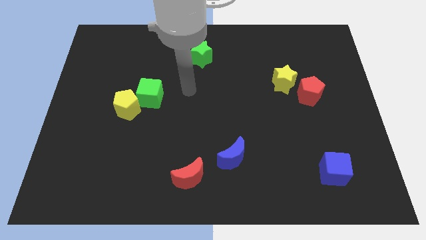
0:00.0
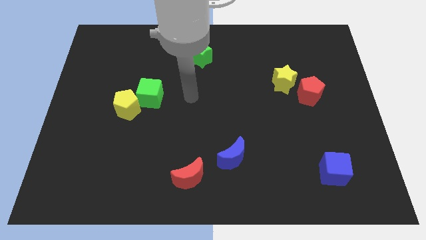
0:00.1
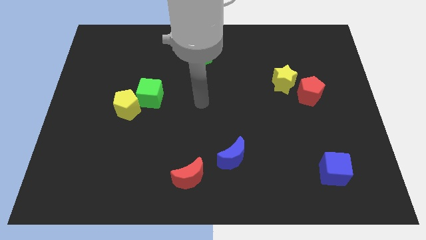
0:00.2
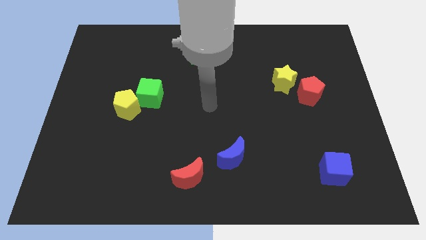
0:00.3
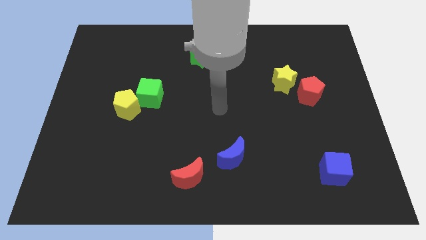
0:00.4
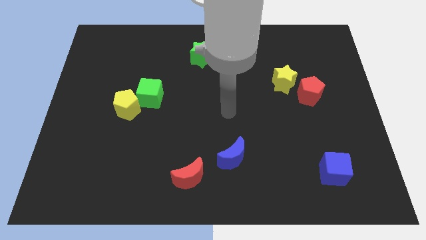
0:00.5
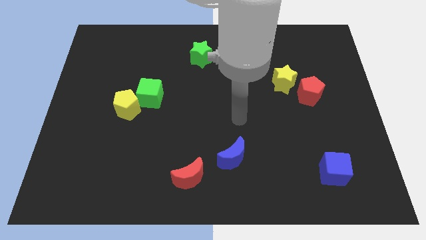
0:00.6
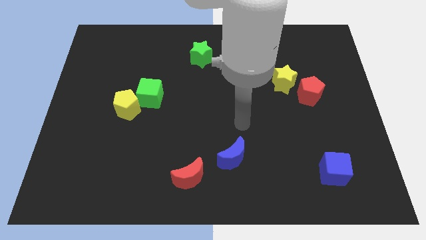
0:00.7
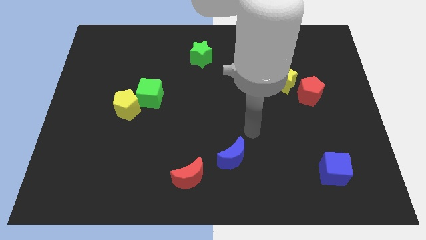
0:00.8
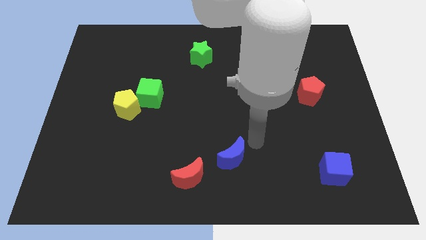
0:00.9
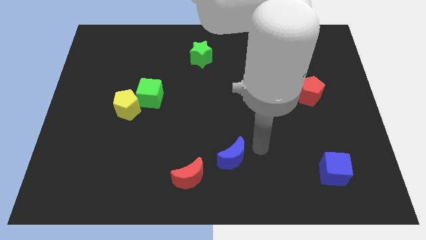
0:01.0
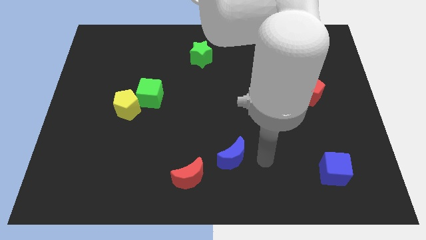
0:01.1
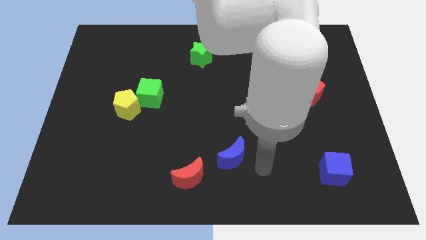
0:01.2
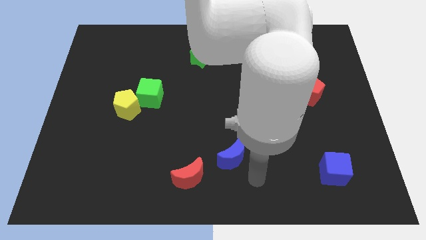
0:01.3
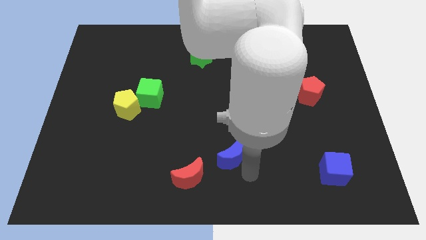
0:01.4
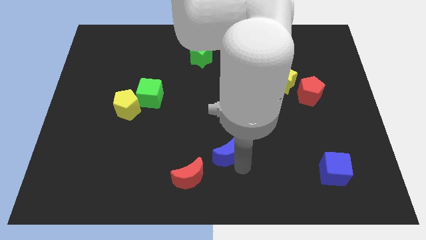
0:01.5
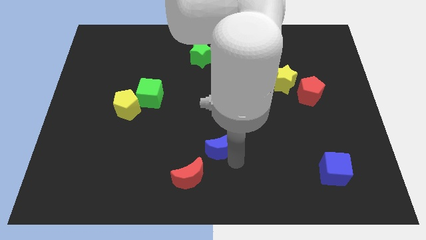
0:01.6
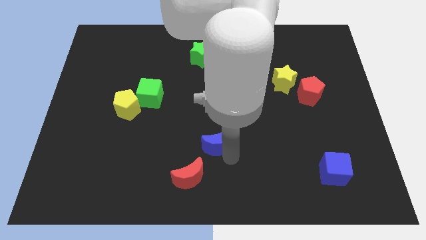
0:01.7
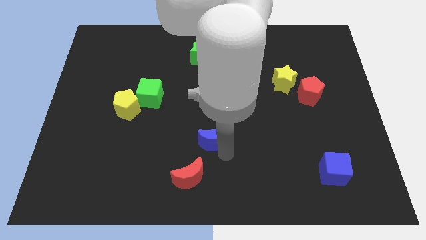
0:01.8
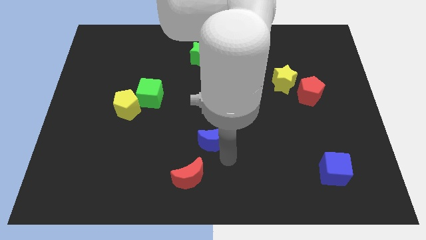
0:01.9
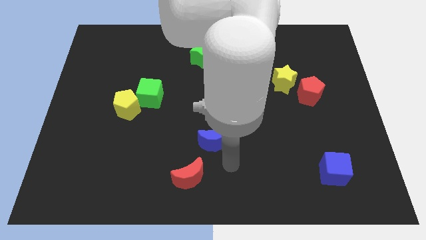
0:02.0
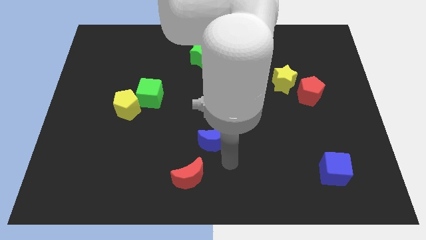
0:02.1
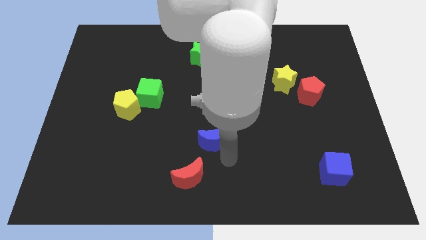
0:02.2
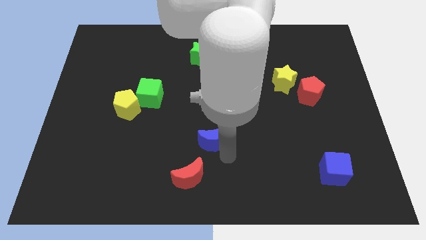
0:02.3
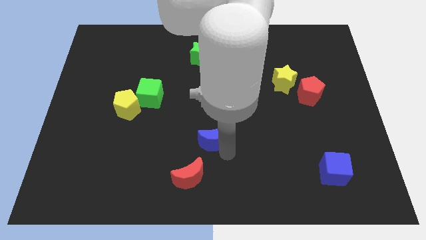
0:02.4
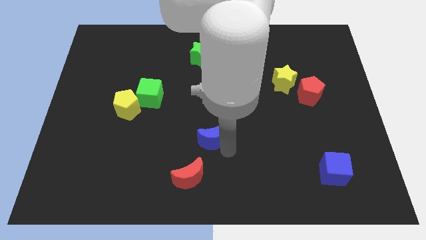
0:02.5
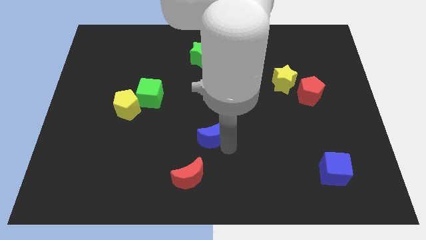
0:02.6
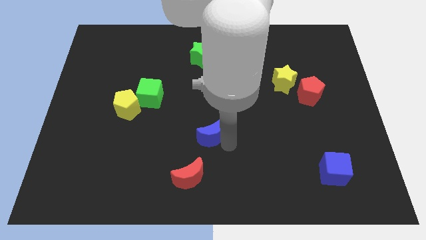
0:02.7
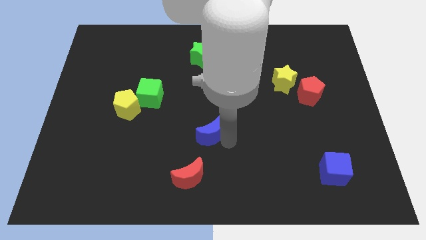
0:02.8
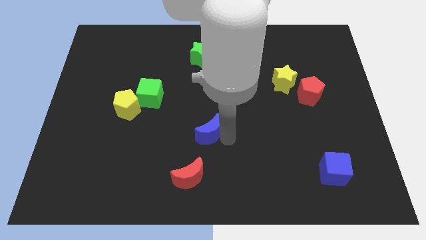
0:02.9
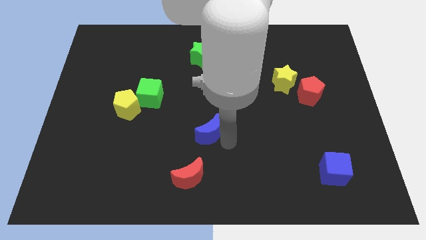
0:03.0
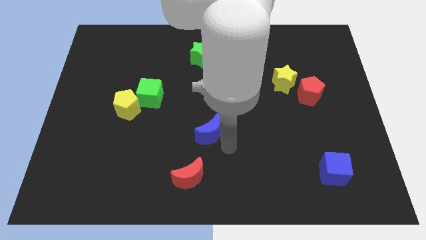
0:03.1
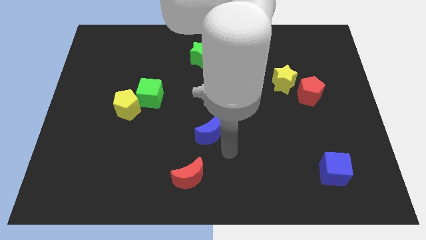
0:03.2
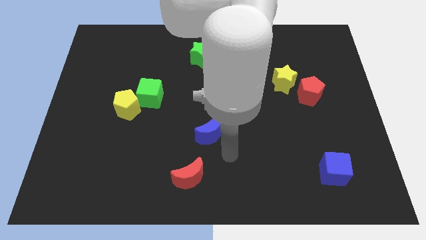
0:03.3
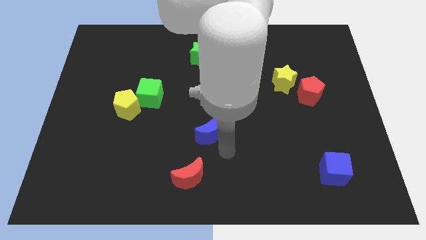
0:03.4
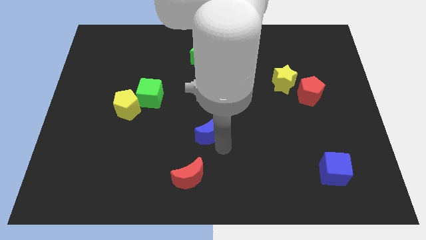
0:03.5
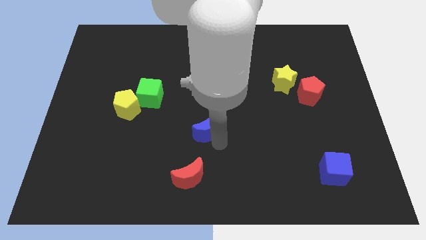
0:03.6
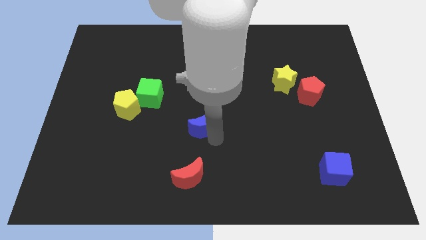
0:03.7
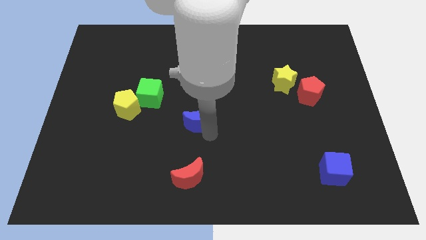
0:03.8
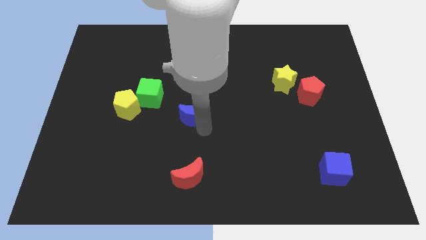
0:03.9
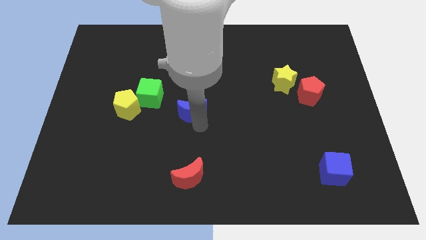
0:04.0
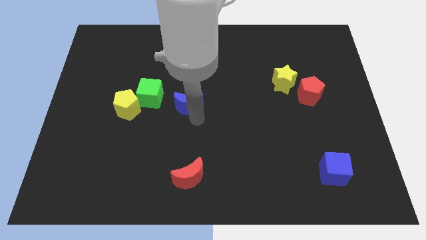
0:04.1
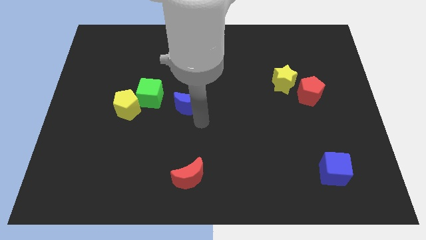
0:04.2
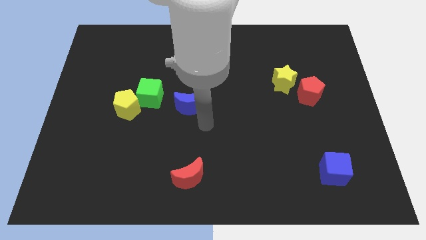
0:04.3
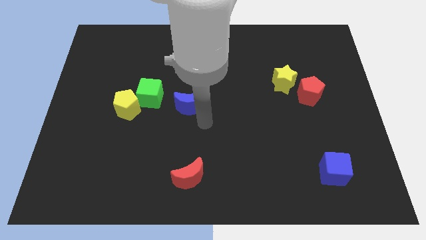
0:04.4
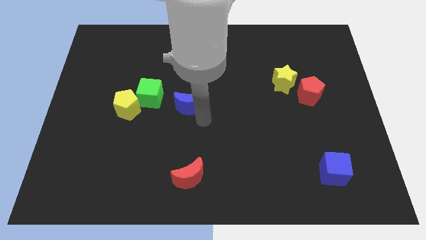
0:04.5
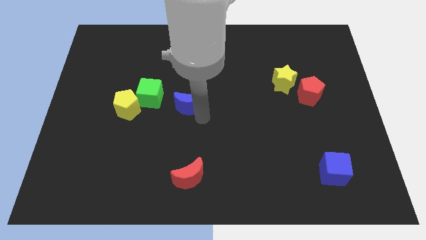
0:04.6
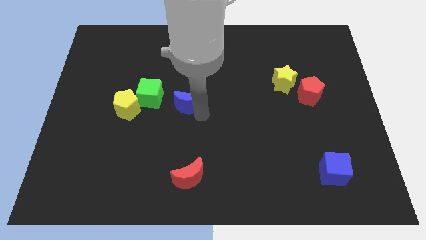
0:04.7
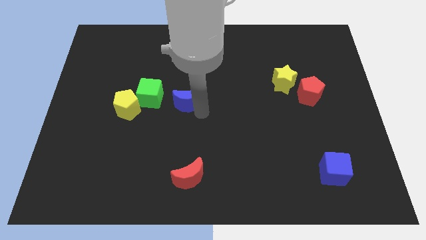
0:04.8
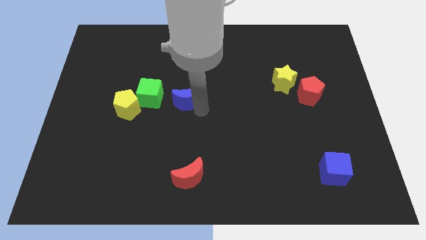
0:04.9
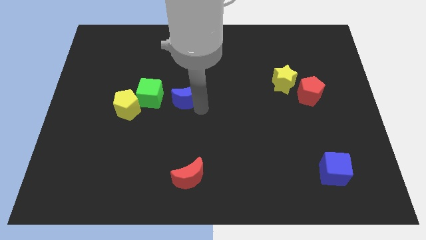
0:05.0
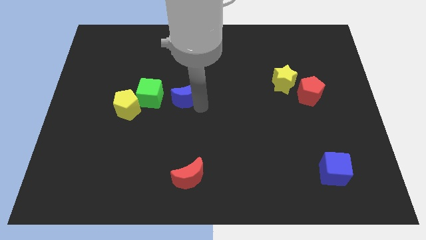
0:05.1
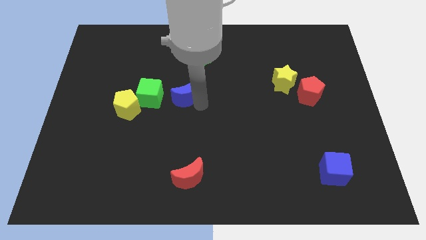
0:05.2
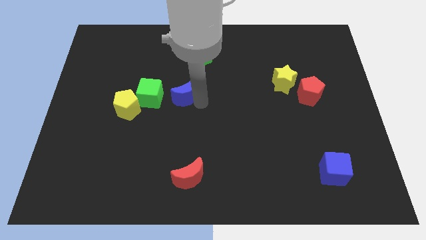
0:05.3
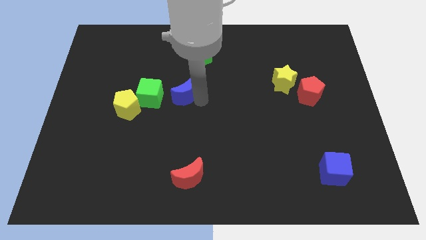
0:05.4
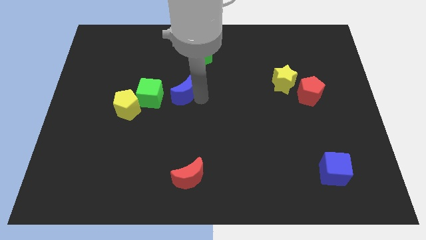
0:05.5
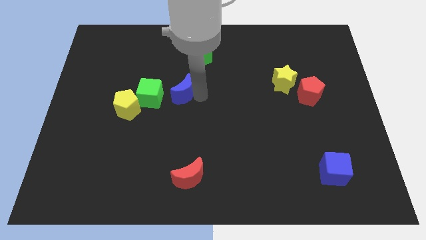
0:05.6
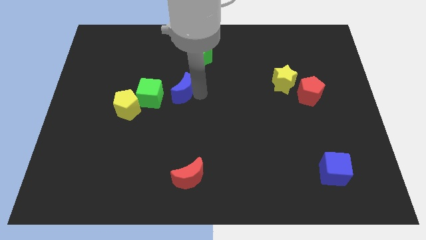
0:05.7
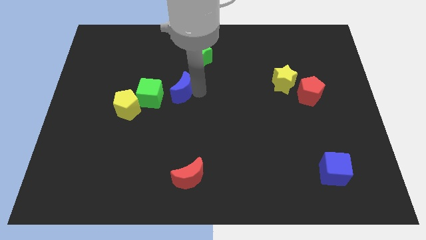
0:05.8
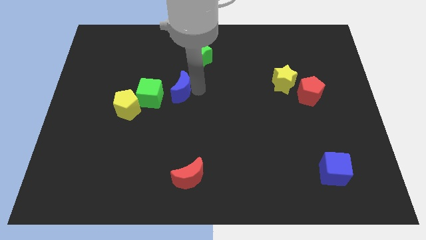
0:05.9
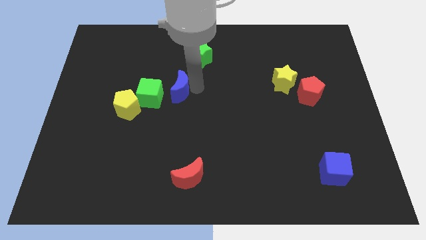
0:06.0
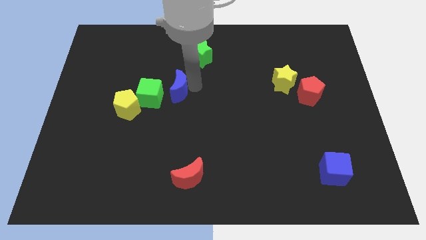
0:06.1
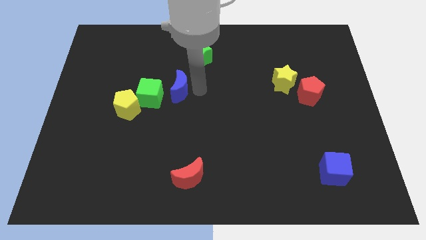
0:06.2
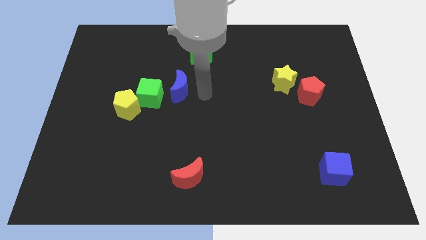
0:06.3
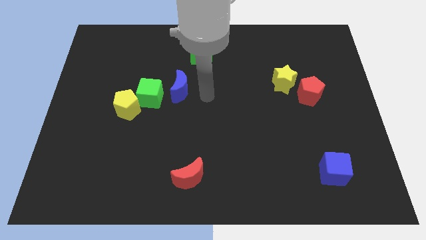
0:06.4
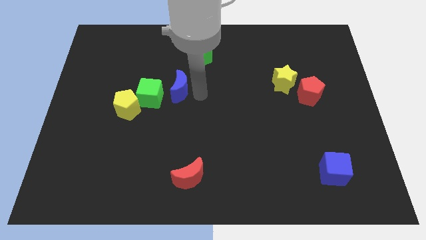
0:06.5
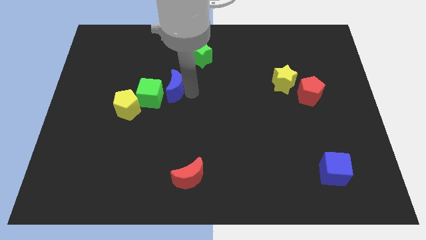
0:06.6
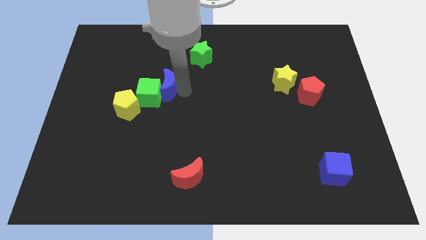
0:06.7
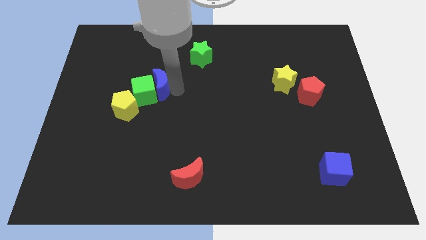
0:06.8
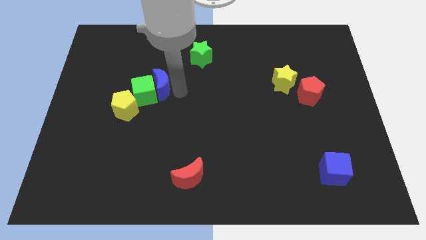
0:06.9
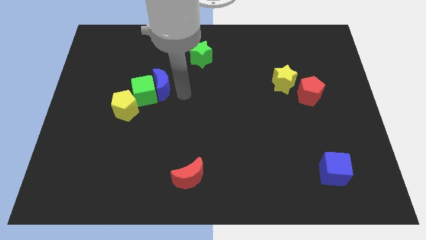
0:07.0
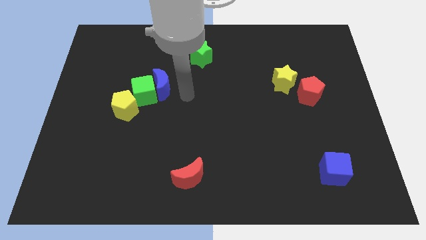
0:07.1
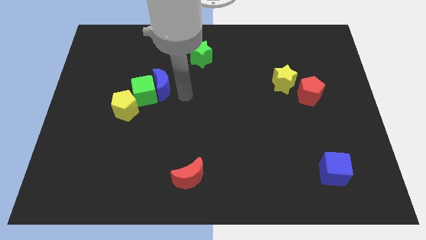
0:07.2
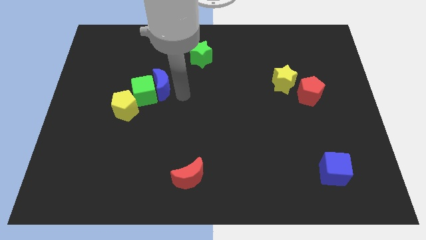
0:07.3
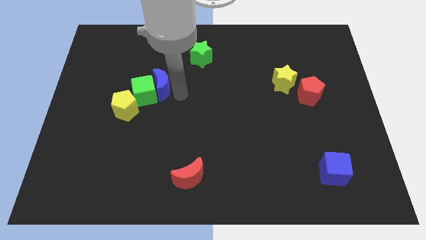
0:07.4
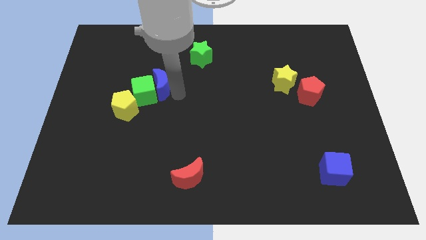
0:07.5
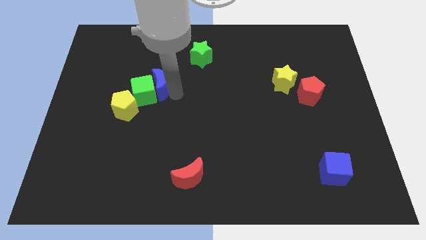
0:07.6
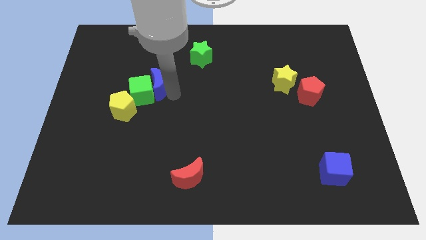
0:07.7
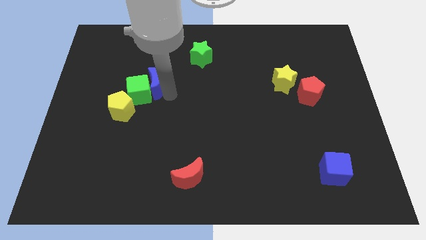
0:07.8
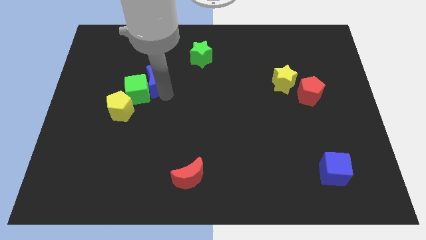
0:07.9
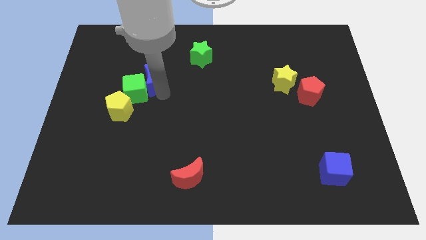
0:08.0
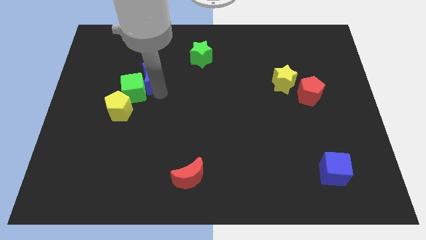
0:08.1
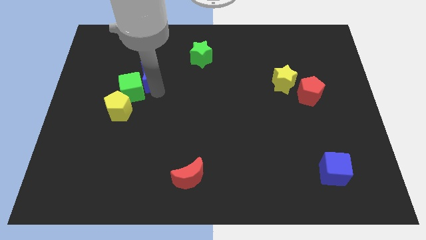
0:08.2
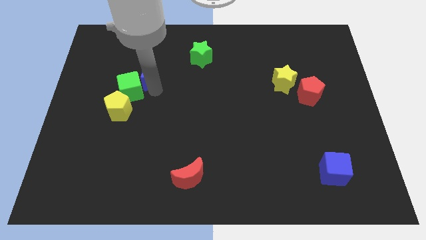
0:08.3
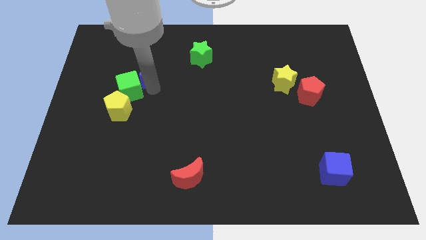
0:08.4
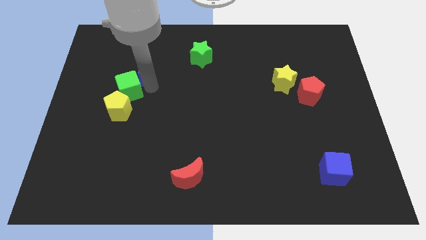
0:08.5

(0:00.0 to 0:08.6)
slide the blue moon to the top of the yellow pentagon
